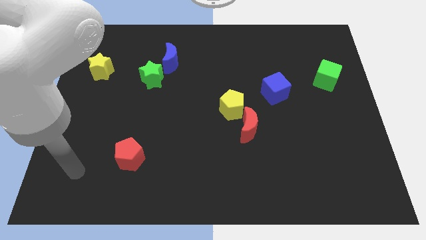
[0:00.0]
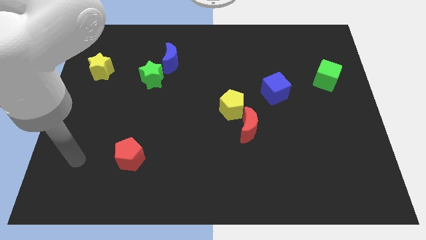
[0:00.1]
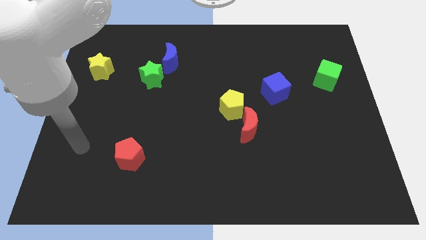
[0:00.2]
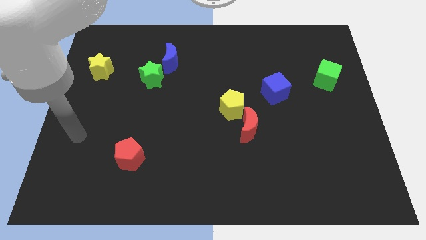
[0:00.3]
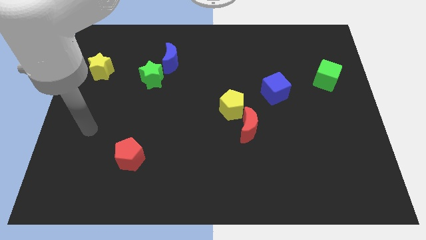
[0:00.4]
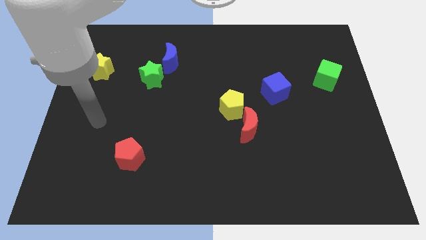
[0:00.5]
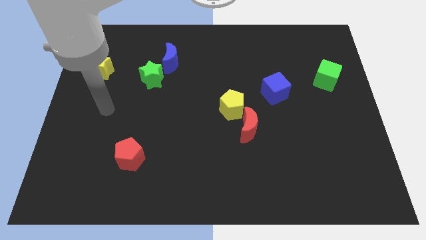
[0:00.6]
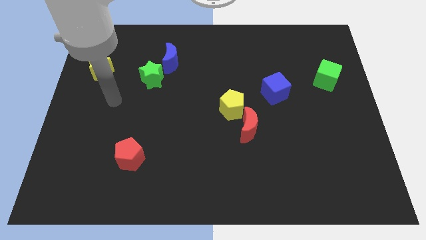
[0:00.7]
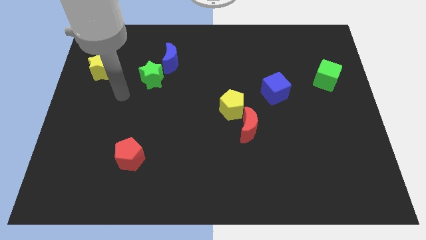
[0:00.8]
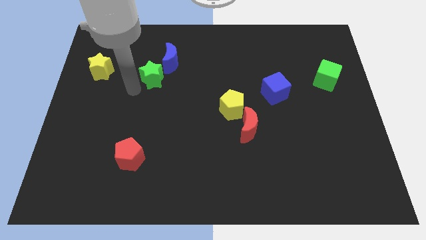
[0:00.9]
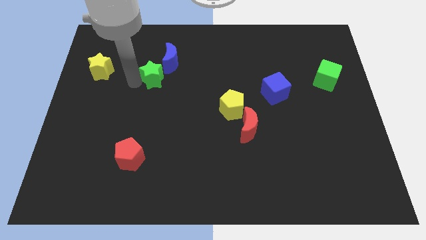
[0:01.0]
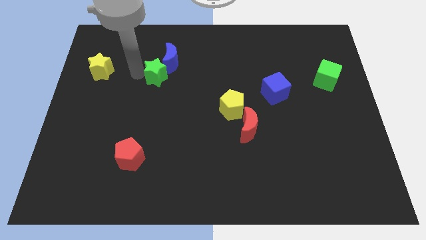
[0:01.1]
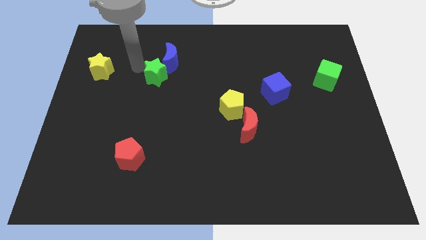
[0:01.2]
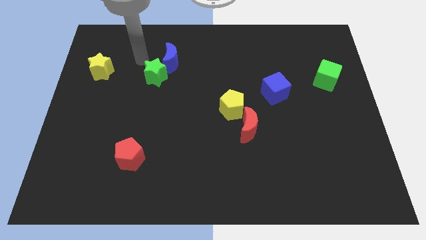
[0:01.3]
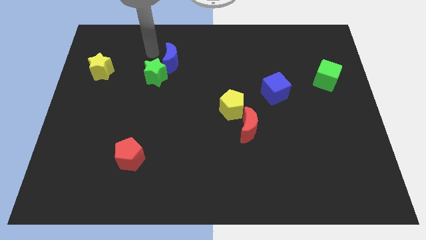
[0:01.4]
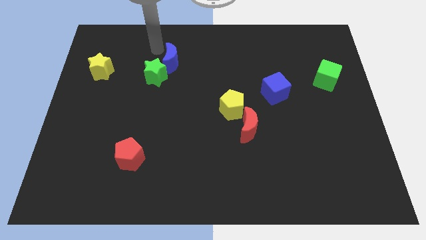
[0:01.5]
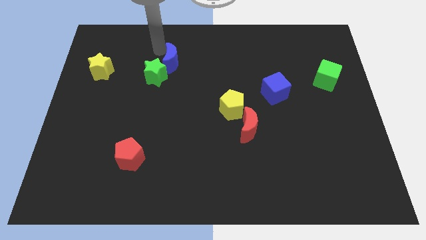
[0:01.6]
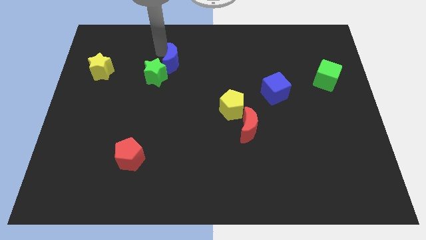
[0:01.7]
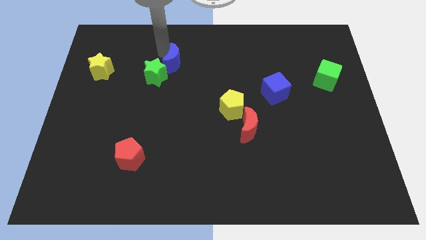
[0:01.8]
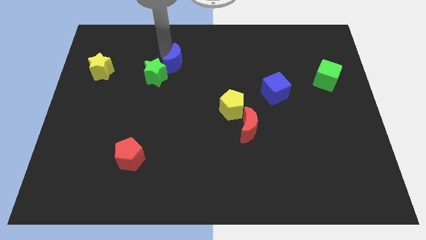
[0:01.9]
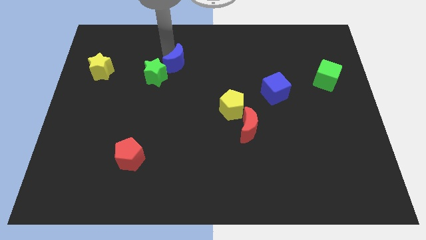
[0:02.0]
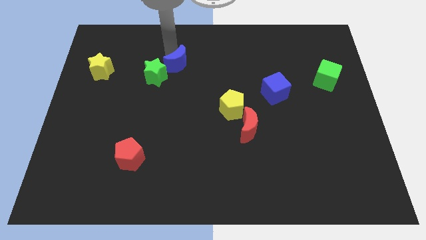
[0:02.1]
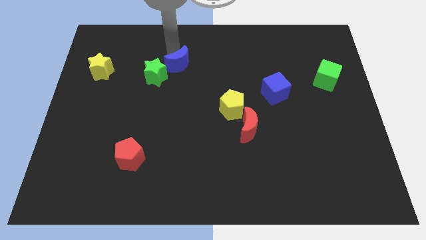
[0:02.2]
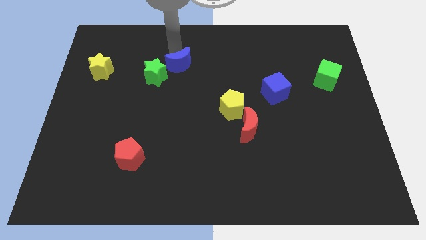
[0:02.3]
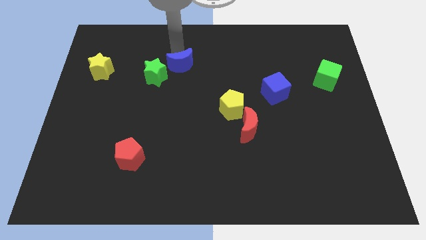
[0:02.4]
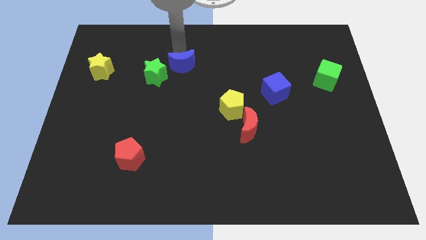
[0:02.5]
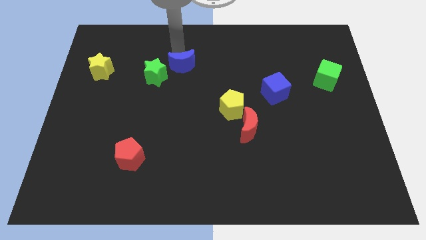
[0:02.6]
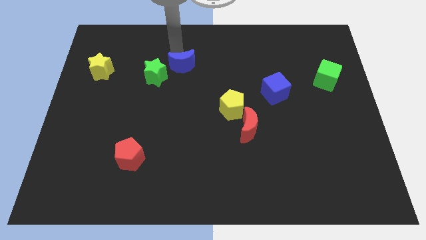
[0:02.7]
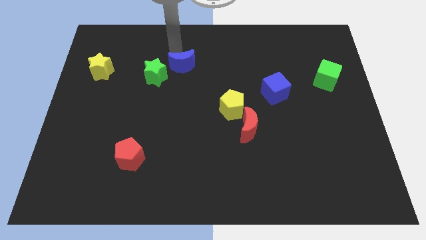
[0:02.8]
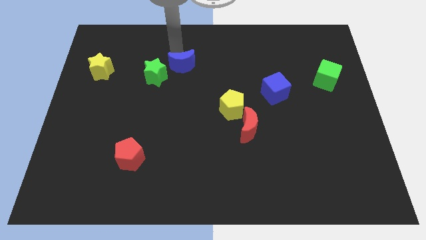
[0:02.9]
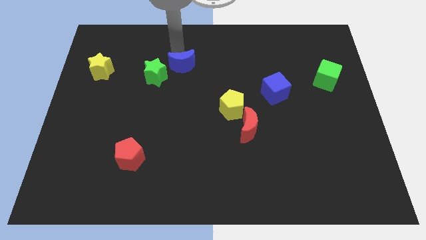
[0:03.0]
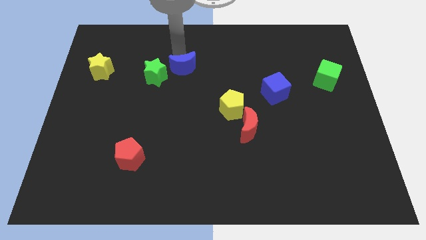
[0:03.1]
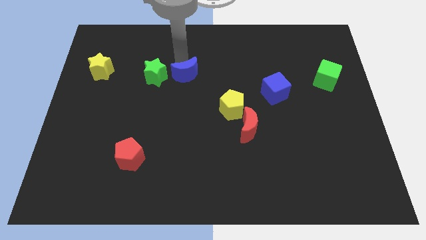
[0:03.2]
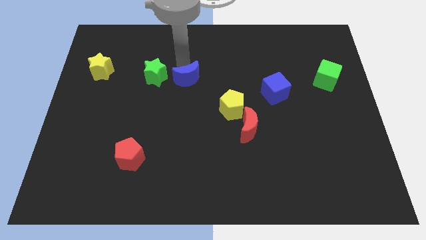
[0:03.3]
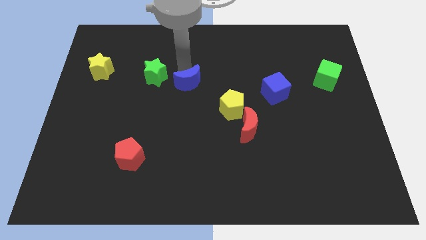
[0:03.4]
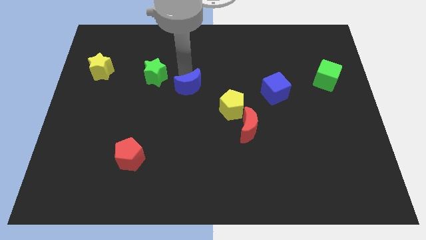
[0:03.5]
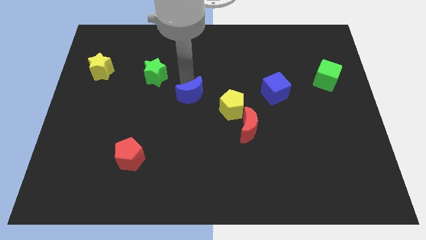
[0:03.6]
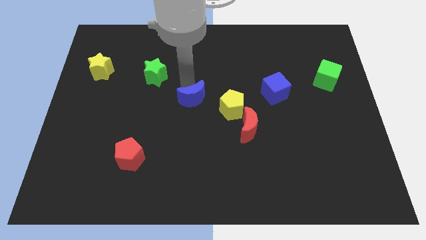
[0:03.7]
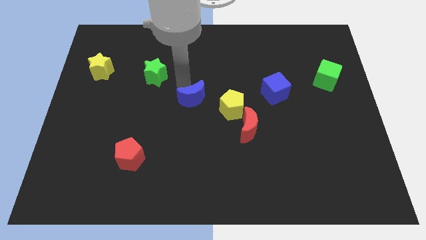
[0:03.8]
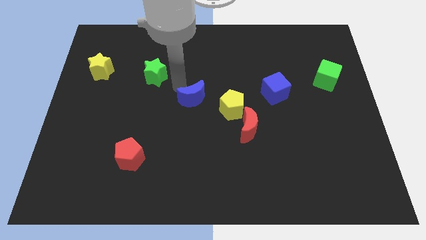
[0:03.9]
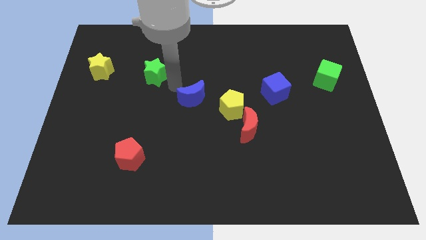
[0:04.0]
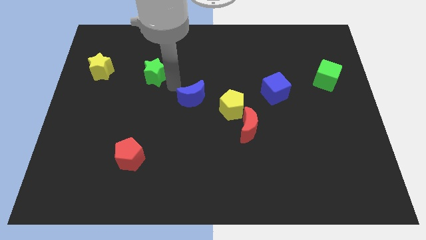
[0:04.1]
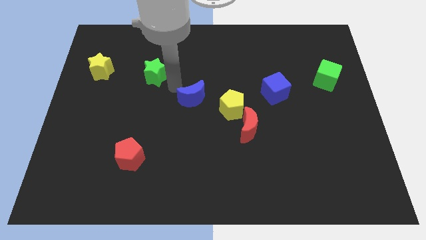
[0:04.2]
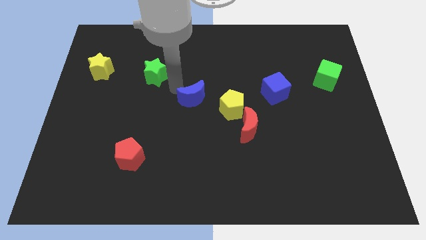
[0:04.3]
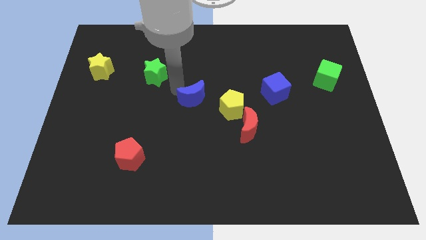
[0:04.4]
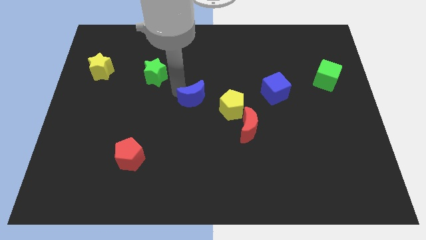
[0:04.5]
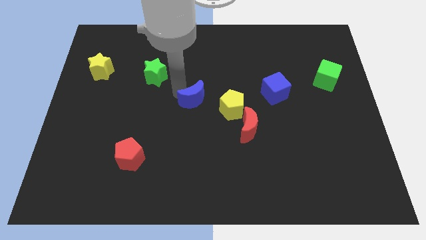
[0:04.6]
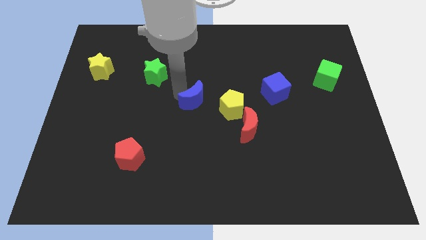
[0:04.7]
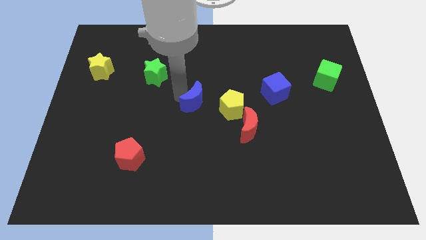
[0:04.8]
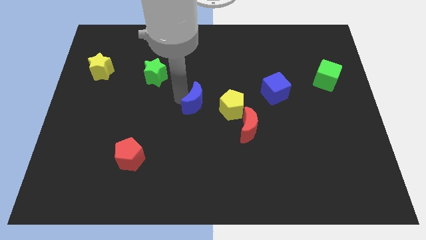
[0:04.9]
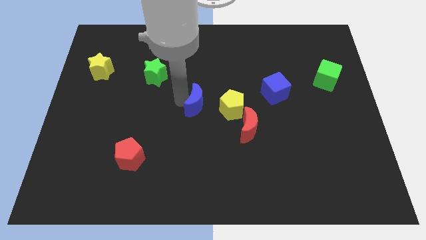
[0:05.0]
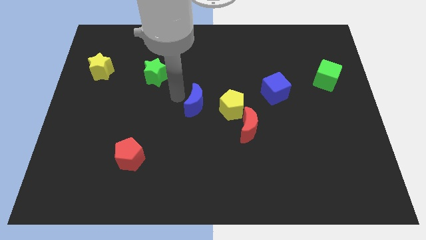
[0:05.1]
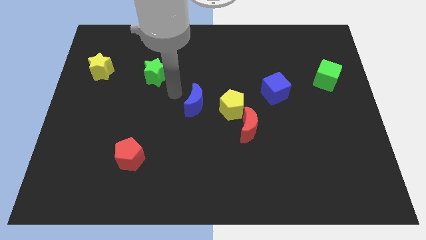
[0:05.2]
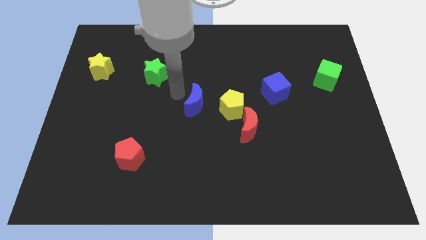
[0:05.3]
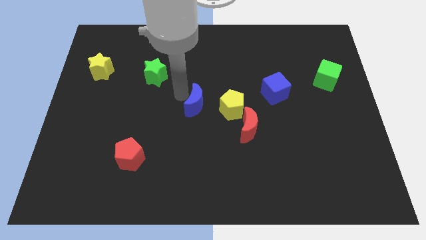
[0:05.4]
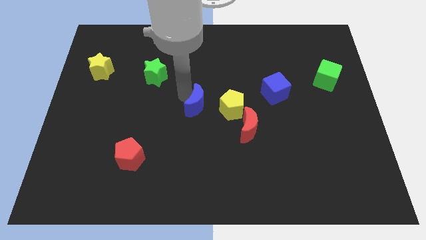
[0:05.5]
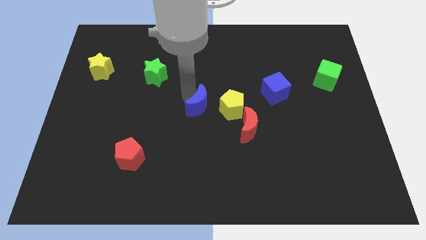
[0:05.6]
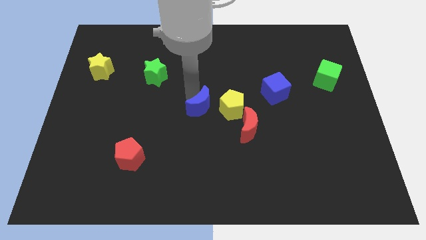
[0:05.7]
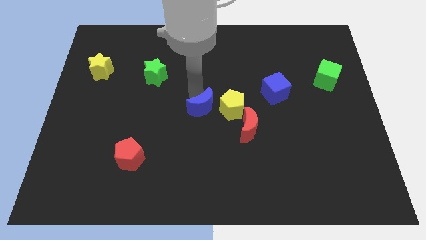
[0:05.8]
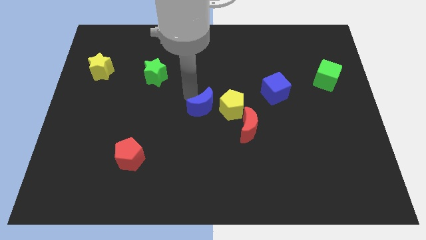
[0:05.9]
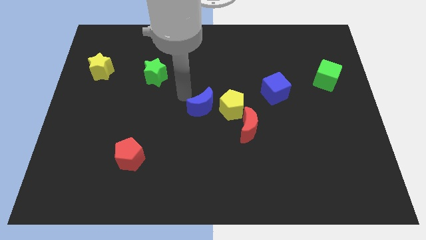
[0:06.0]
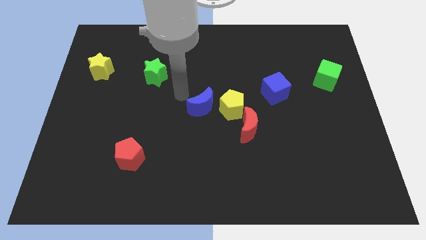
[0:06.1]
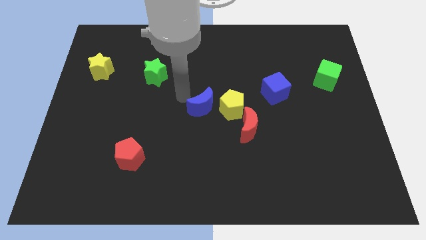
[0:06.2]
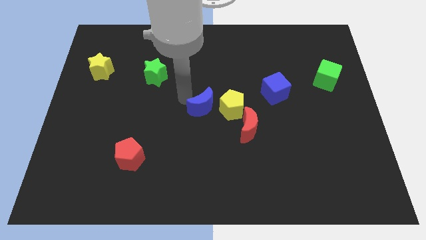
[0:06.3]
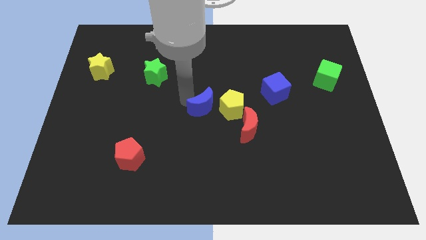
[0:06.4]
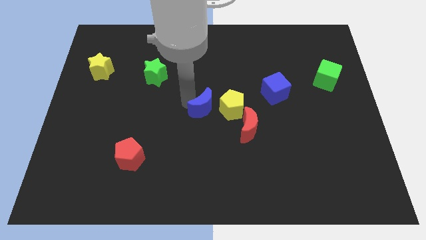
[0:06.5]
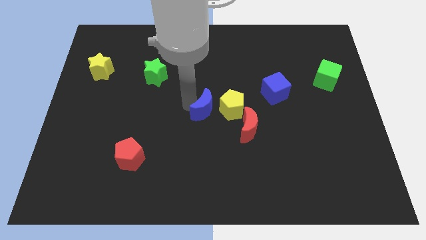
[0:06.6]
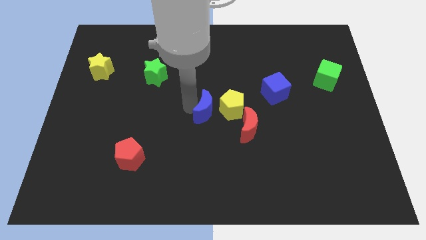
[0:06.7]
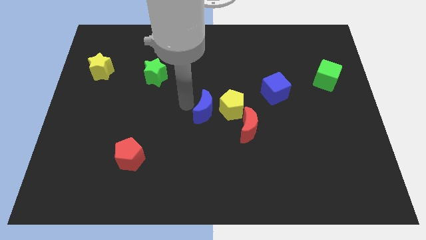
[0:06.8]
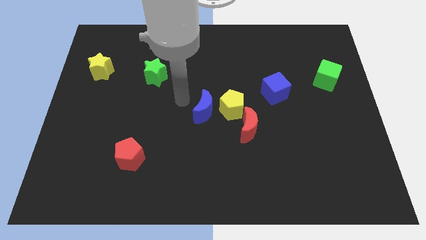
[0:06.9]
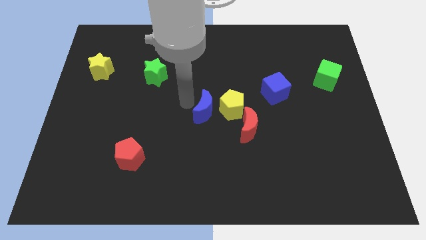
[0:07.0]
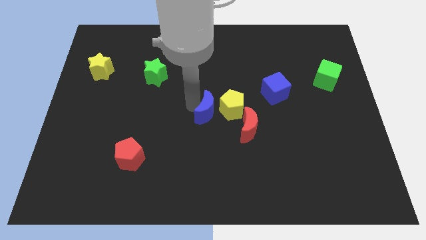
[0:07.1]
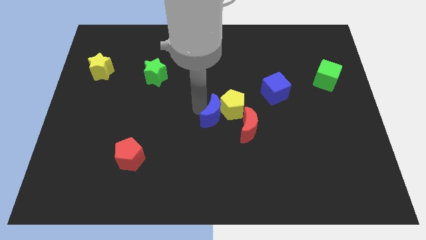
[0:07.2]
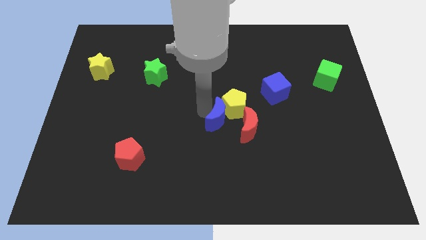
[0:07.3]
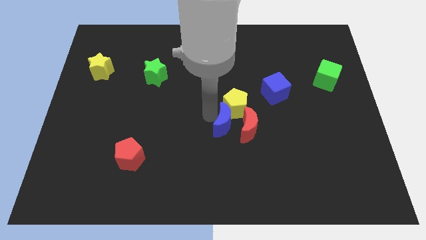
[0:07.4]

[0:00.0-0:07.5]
slide the blue moon to the red moon
